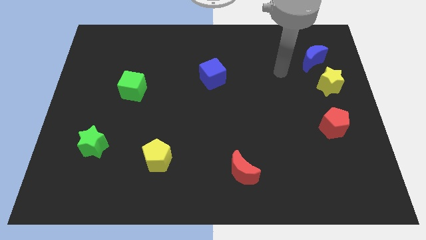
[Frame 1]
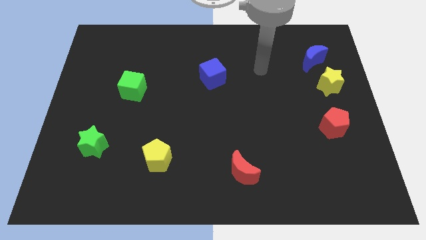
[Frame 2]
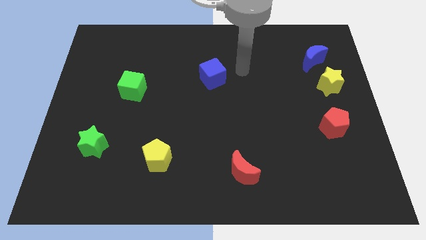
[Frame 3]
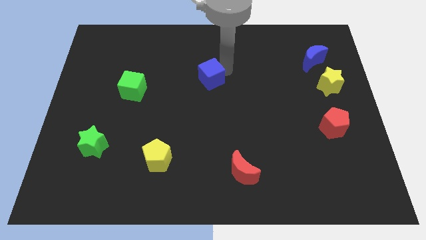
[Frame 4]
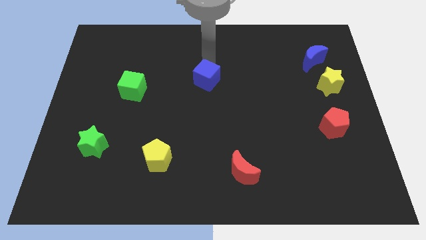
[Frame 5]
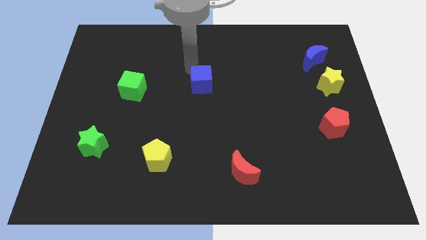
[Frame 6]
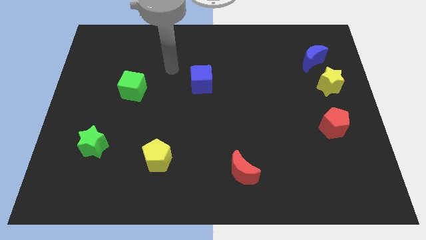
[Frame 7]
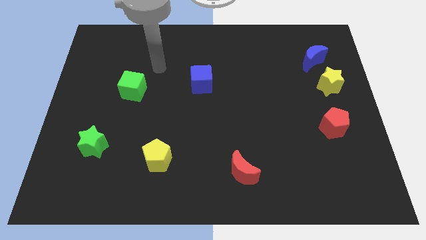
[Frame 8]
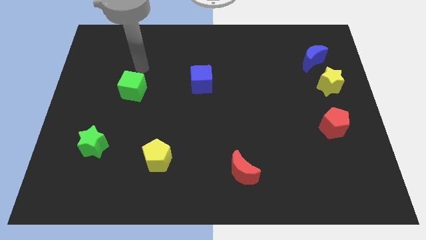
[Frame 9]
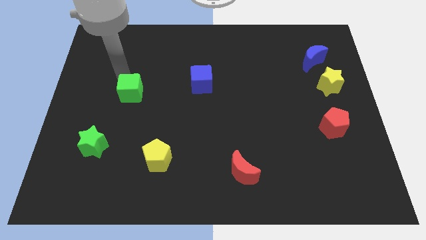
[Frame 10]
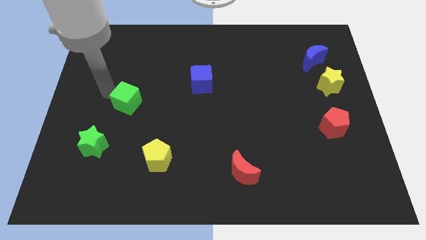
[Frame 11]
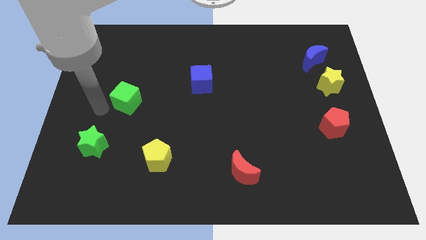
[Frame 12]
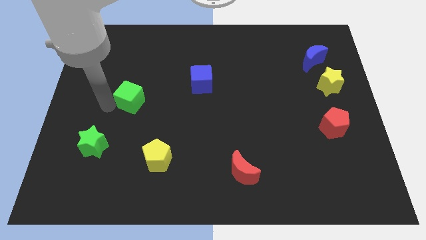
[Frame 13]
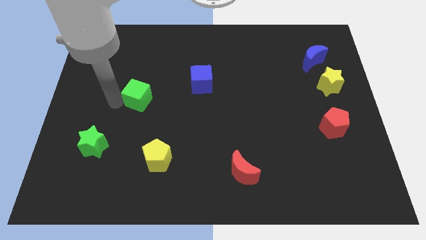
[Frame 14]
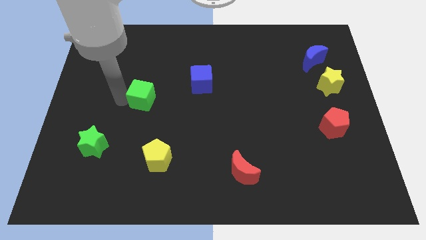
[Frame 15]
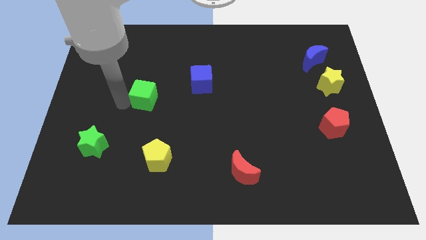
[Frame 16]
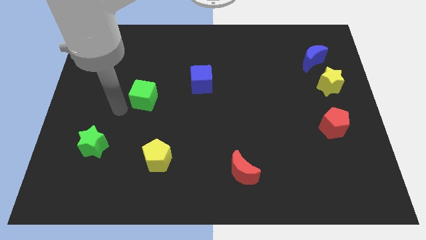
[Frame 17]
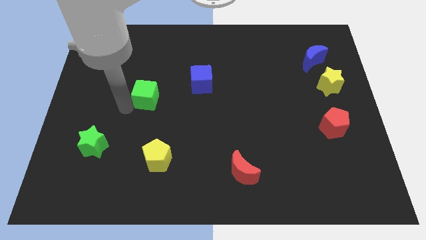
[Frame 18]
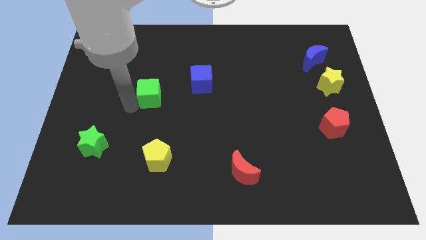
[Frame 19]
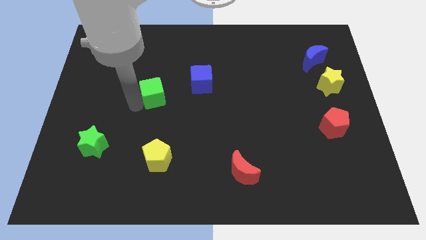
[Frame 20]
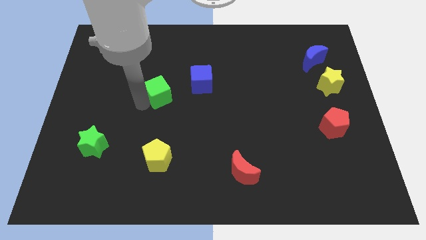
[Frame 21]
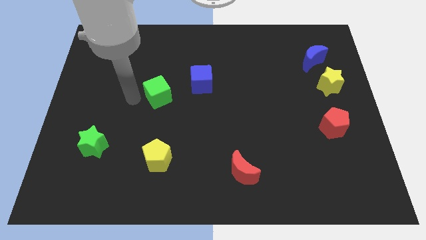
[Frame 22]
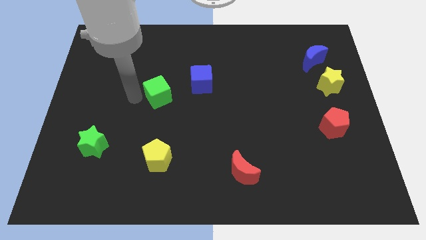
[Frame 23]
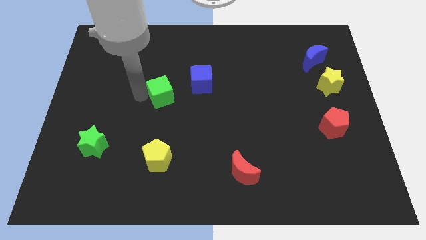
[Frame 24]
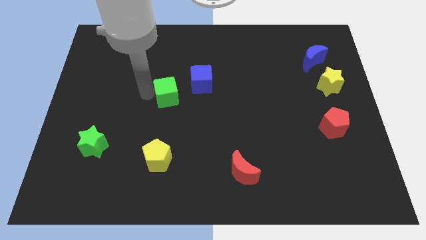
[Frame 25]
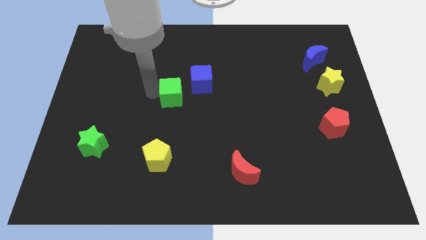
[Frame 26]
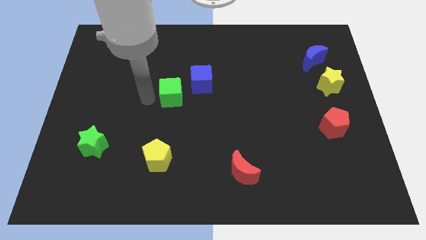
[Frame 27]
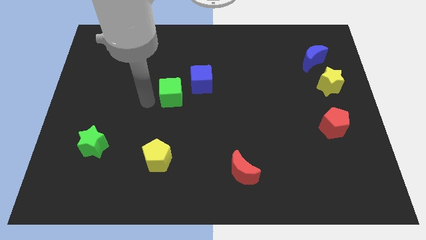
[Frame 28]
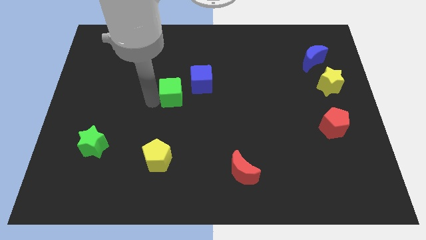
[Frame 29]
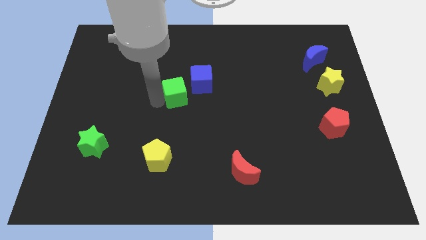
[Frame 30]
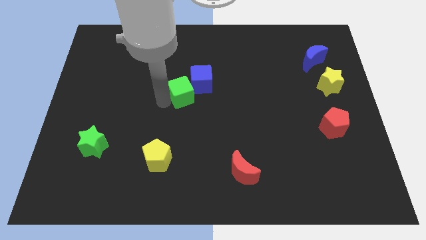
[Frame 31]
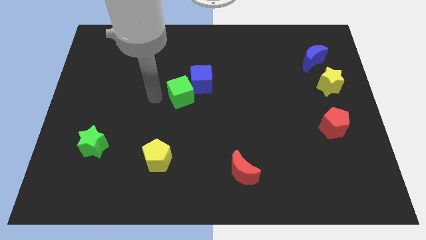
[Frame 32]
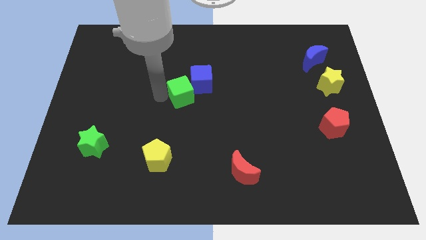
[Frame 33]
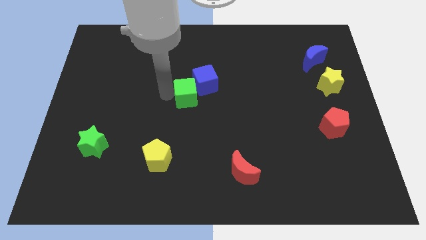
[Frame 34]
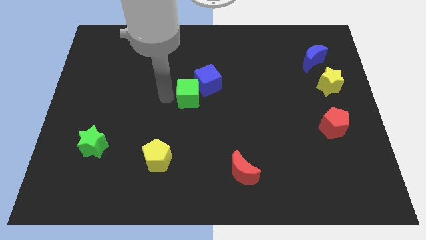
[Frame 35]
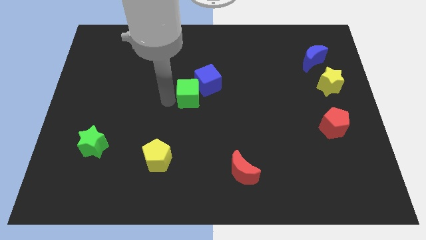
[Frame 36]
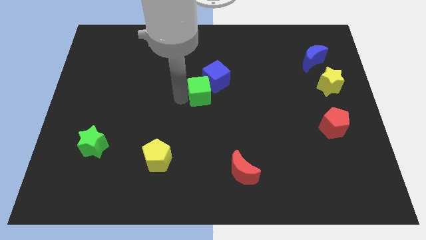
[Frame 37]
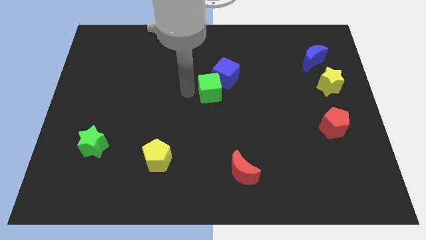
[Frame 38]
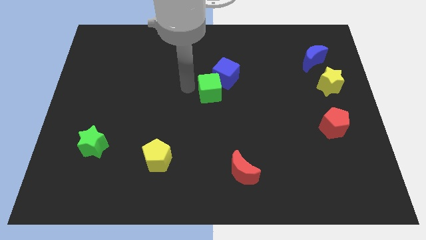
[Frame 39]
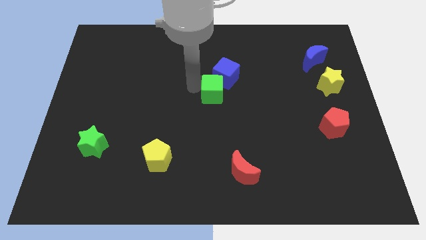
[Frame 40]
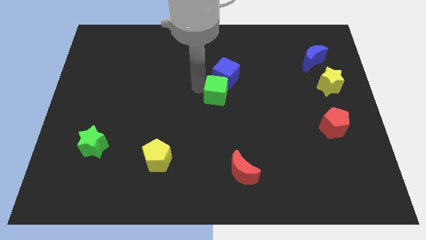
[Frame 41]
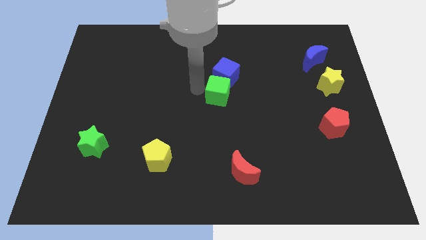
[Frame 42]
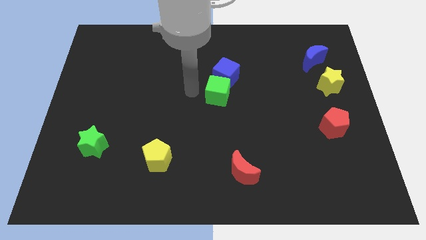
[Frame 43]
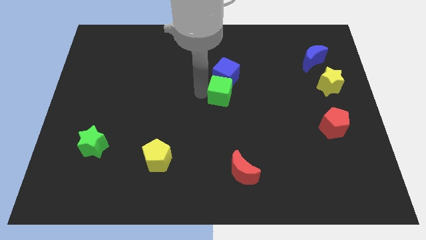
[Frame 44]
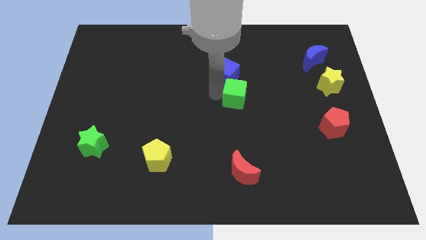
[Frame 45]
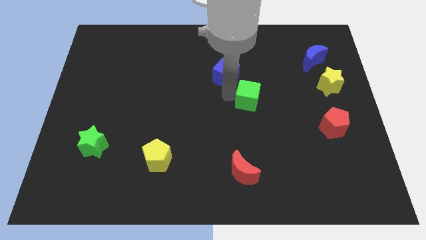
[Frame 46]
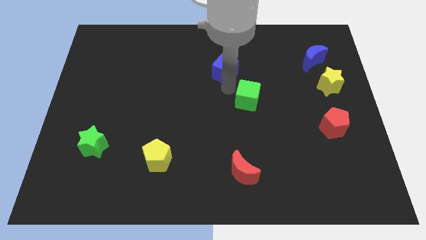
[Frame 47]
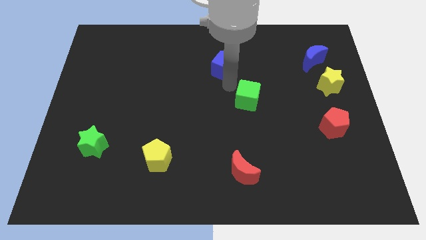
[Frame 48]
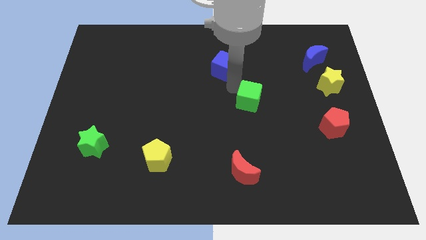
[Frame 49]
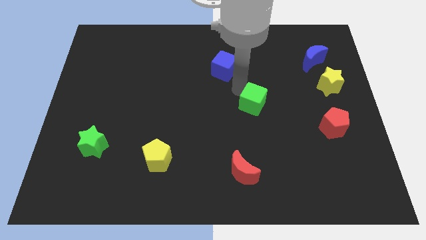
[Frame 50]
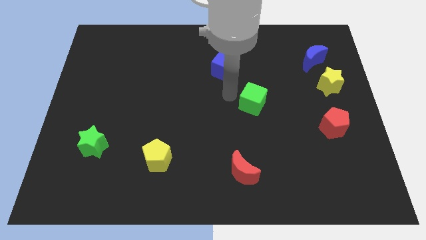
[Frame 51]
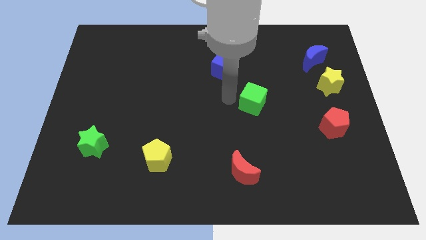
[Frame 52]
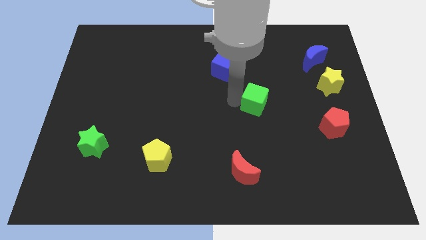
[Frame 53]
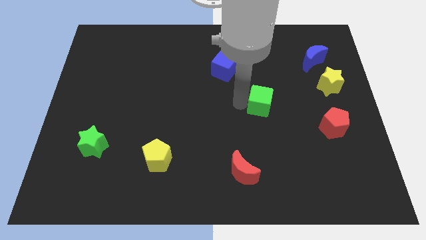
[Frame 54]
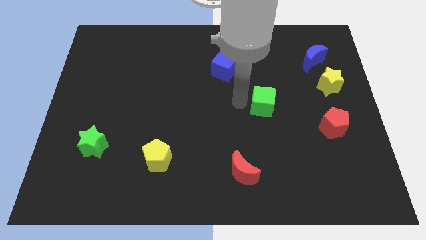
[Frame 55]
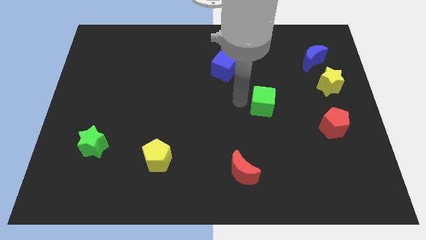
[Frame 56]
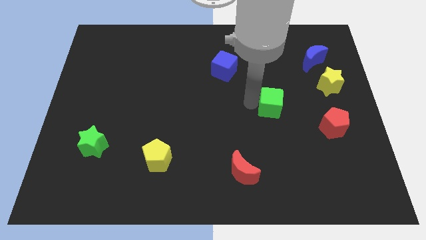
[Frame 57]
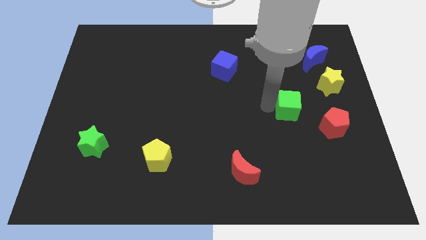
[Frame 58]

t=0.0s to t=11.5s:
slide the green cube diagonally up and to the left of the red pentagon

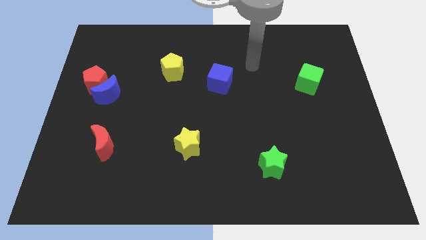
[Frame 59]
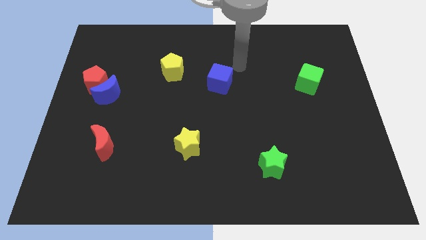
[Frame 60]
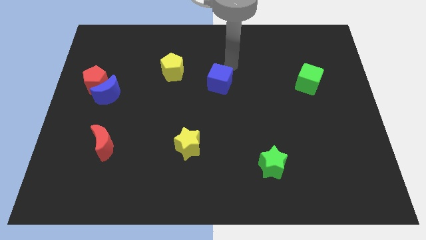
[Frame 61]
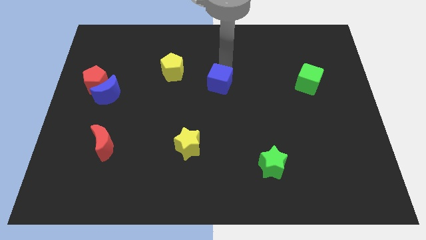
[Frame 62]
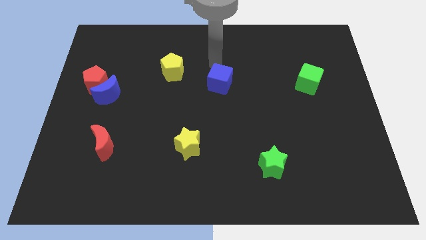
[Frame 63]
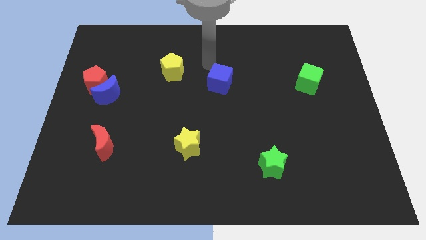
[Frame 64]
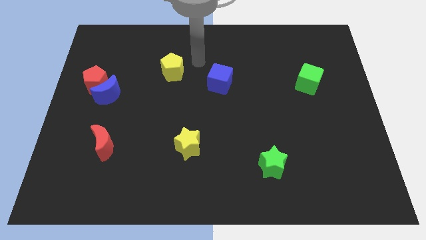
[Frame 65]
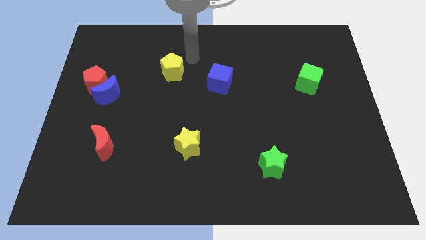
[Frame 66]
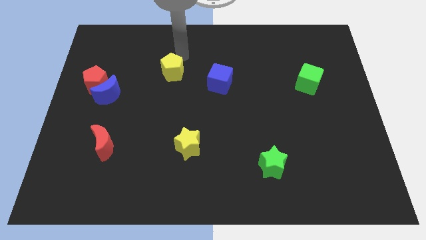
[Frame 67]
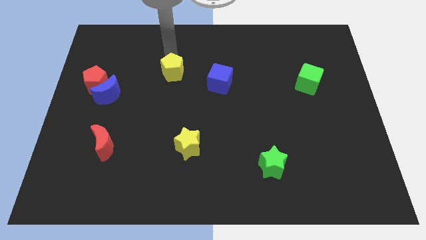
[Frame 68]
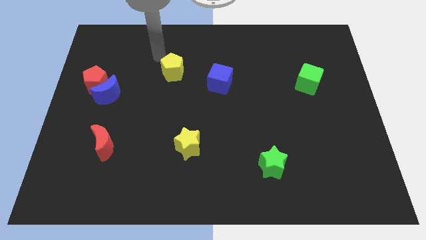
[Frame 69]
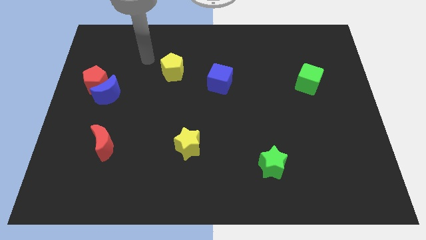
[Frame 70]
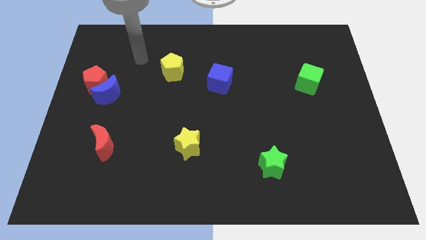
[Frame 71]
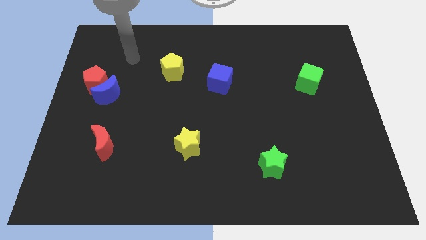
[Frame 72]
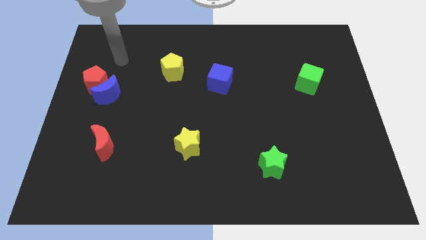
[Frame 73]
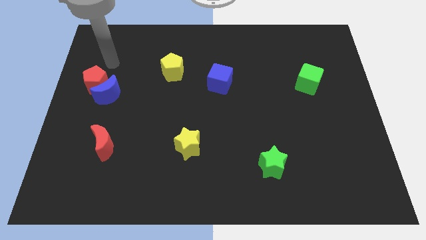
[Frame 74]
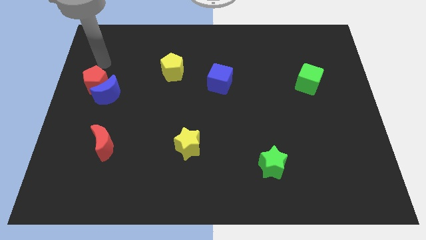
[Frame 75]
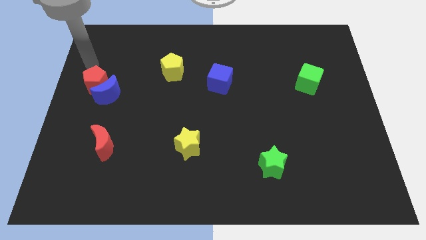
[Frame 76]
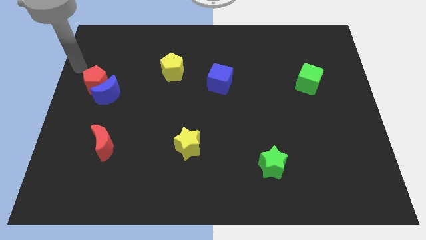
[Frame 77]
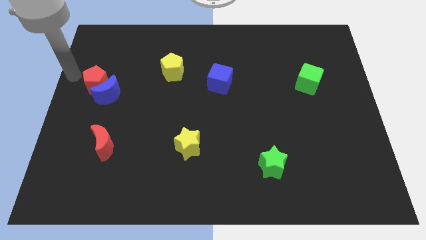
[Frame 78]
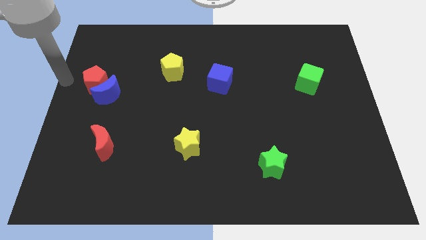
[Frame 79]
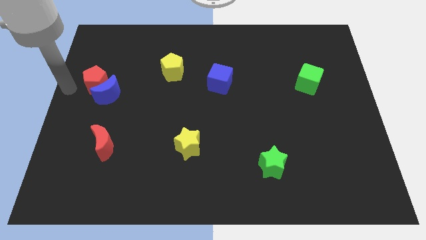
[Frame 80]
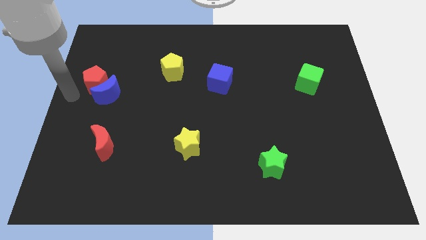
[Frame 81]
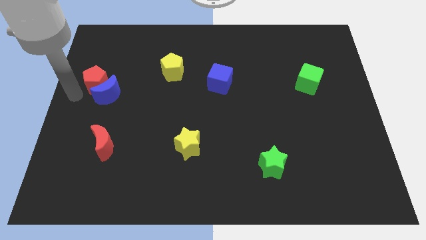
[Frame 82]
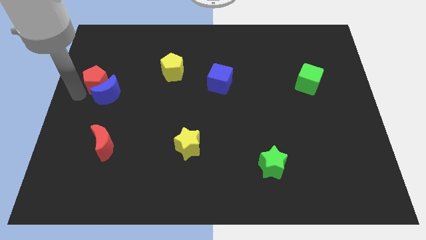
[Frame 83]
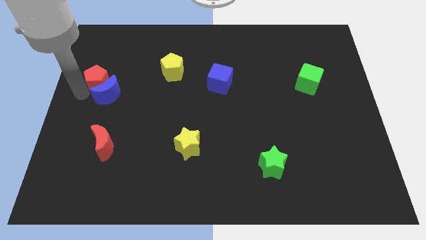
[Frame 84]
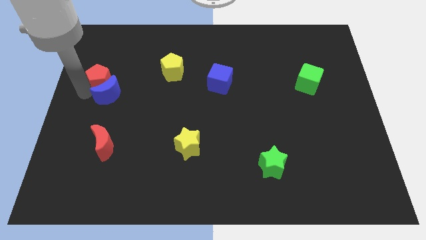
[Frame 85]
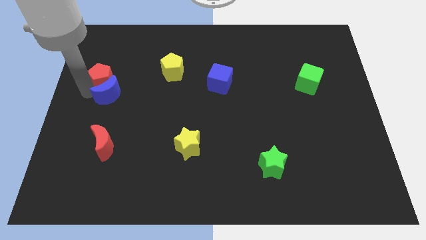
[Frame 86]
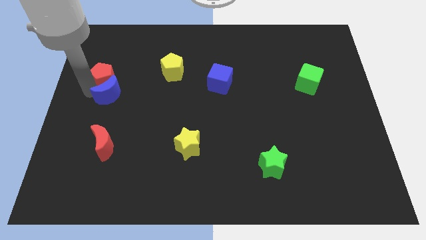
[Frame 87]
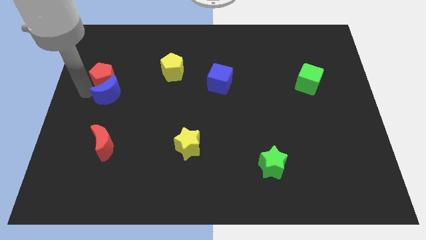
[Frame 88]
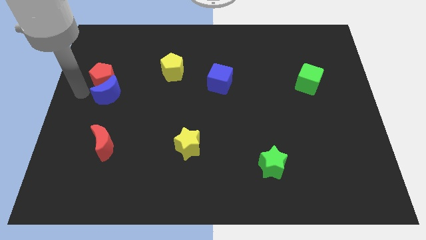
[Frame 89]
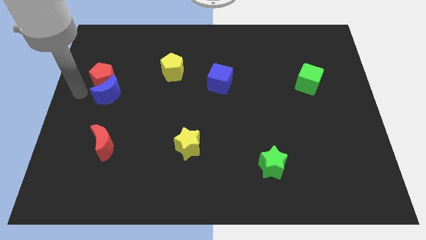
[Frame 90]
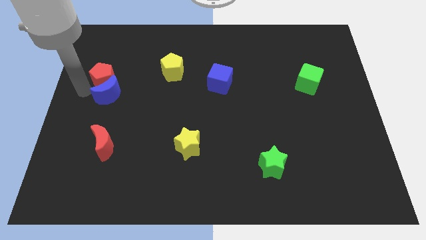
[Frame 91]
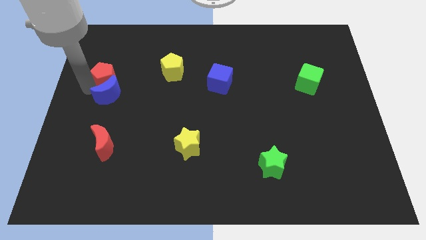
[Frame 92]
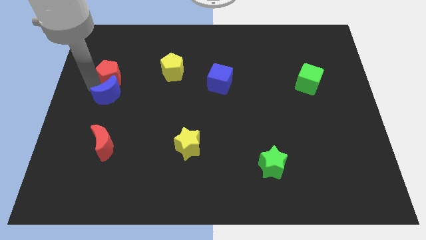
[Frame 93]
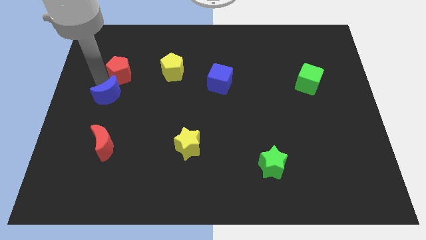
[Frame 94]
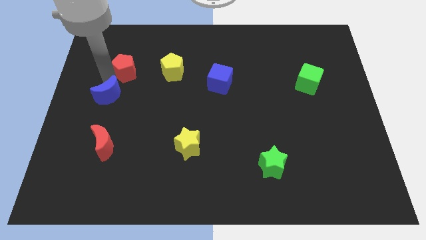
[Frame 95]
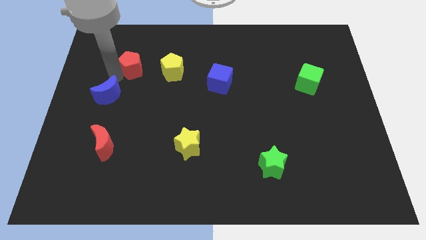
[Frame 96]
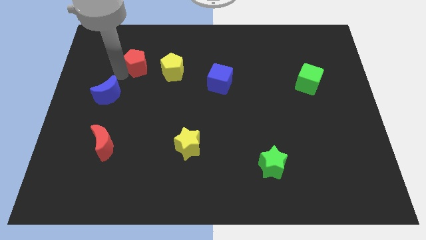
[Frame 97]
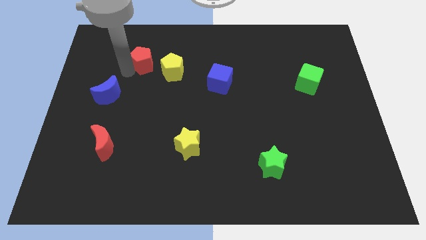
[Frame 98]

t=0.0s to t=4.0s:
push the red pentagon to the top left side of the yellow pentagon
